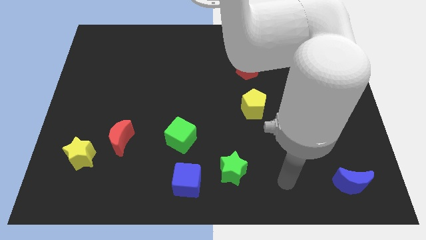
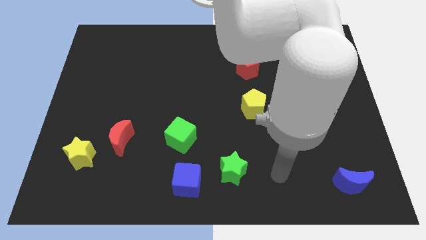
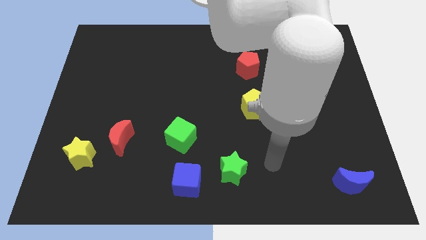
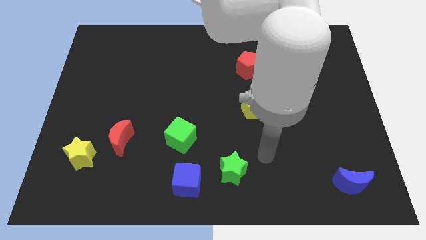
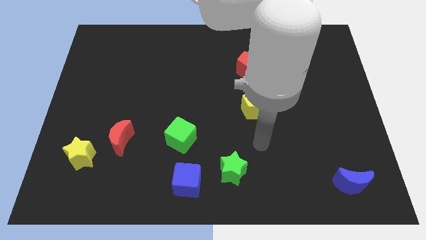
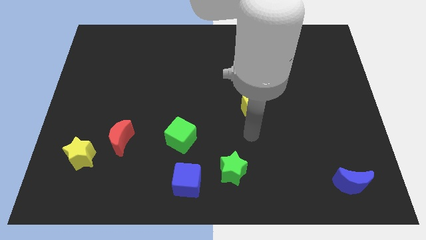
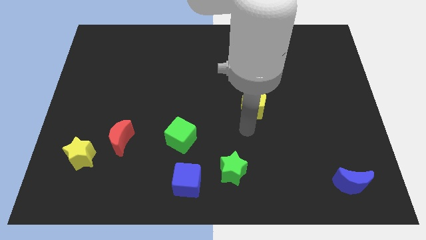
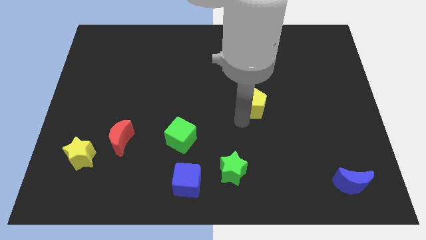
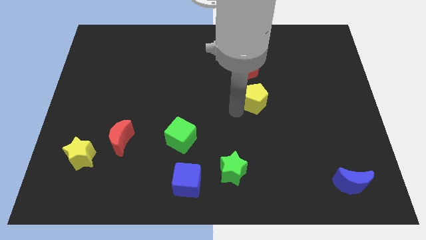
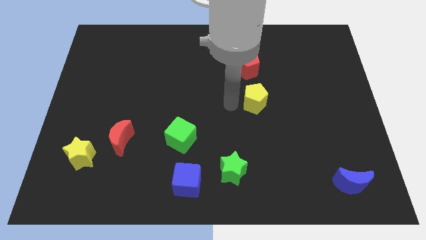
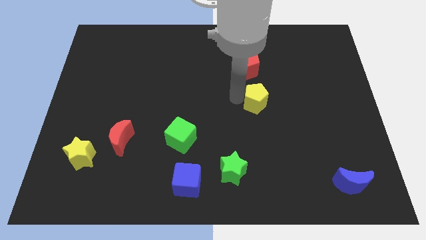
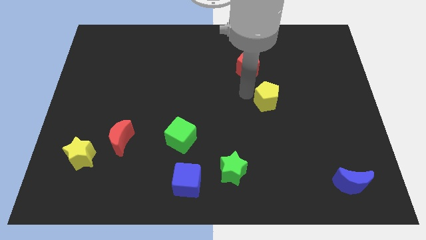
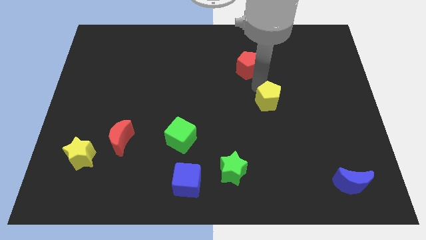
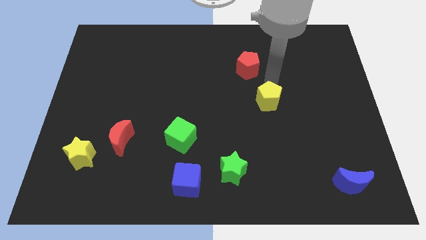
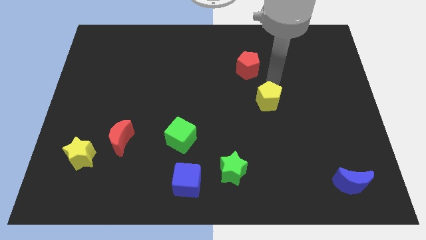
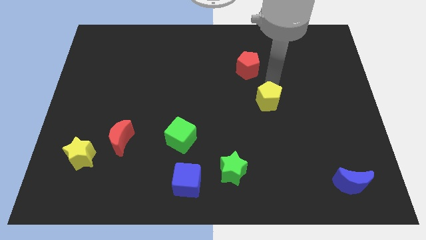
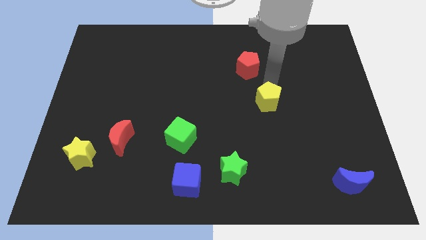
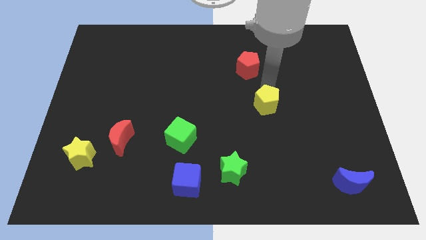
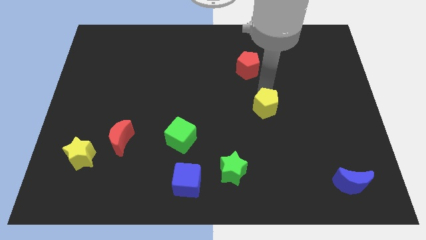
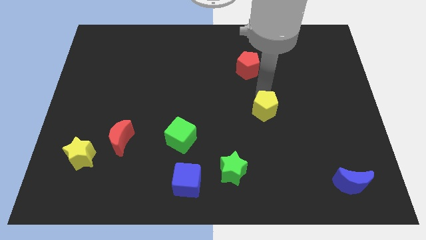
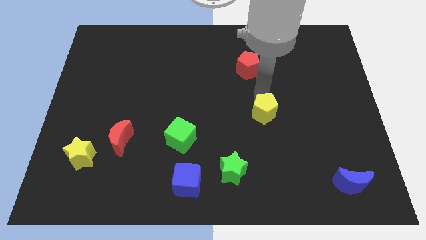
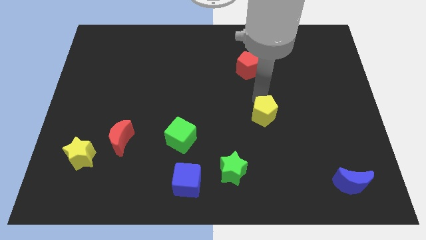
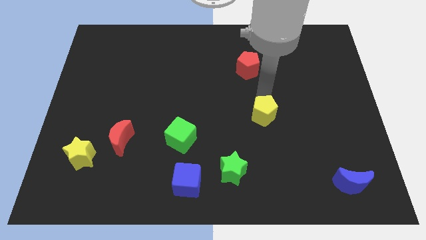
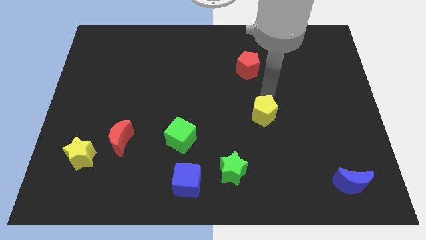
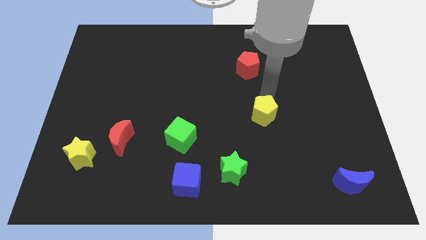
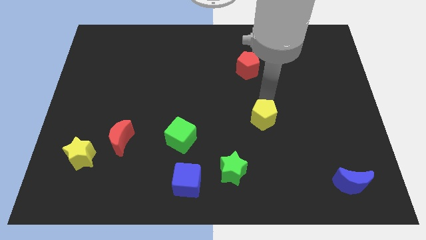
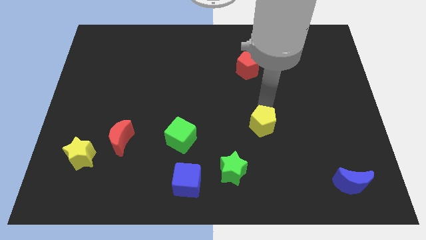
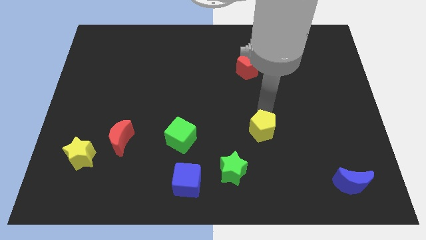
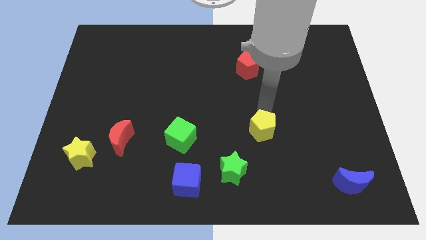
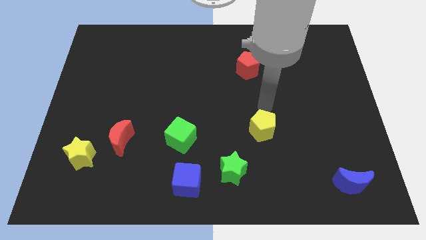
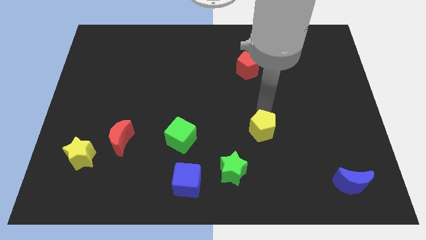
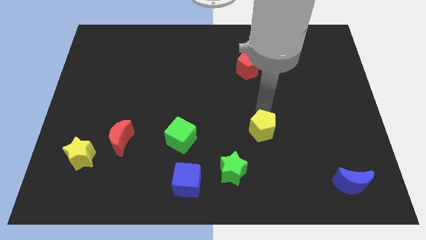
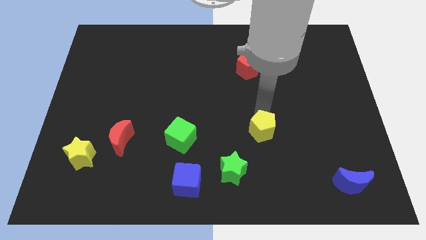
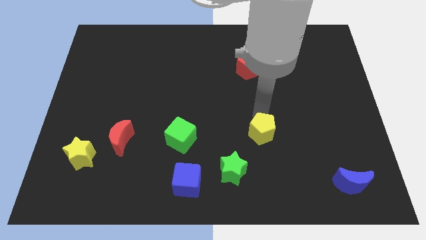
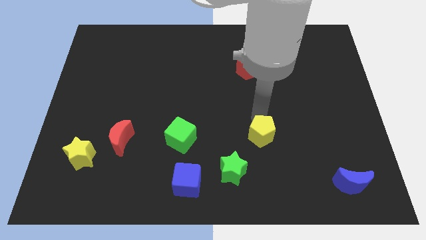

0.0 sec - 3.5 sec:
push the yellow pentagon a bit down

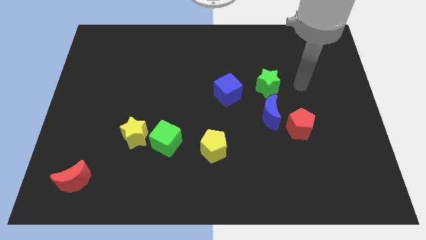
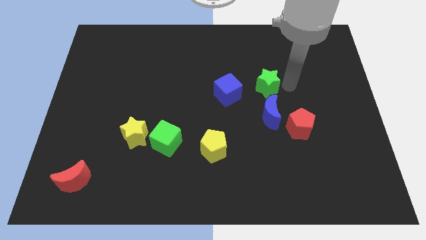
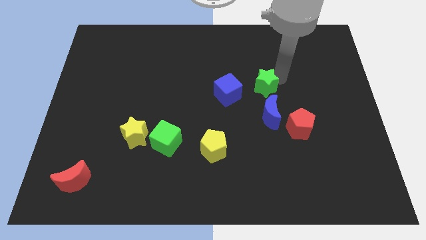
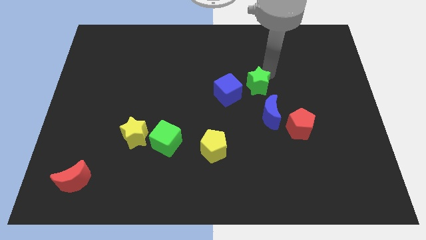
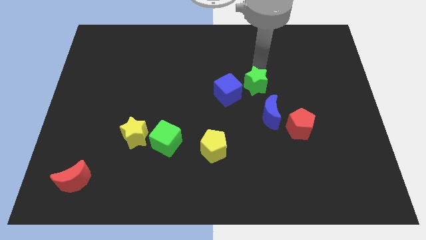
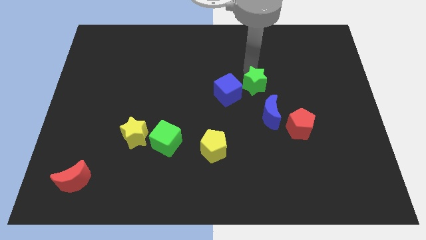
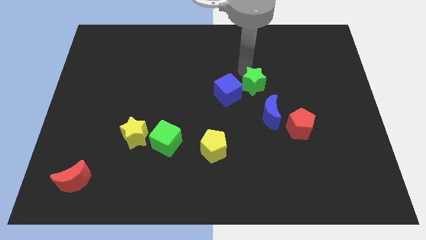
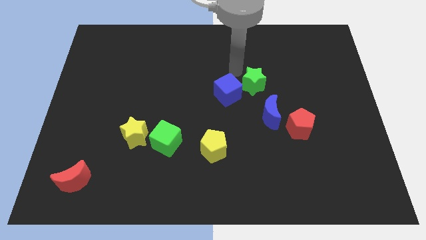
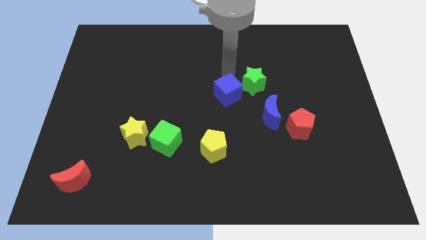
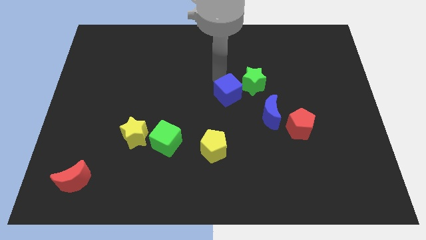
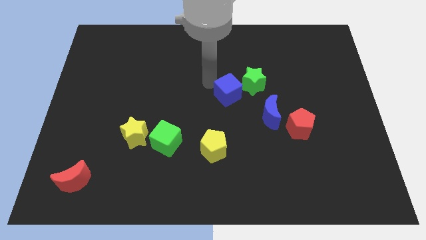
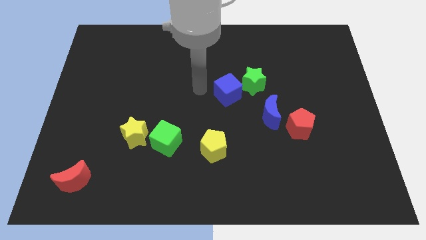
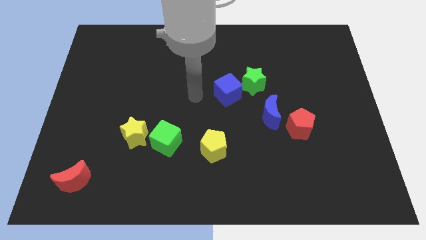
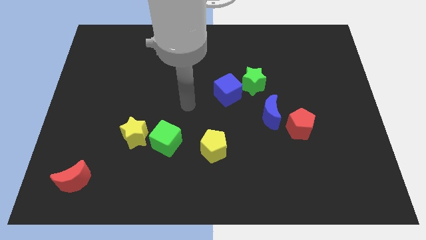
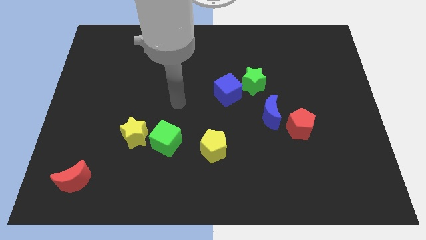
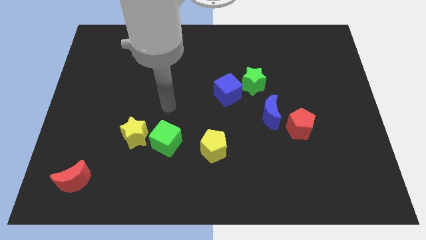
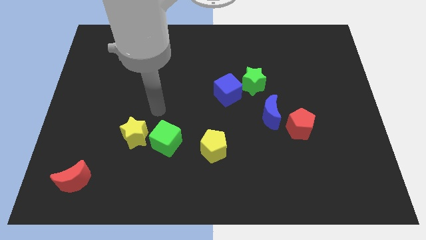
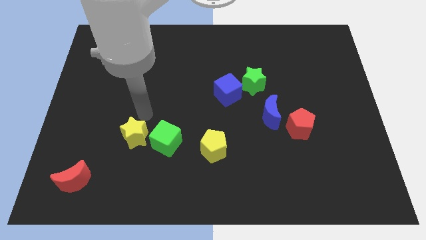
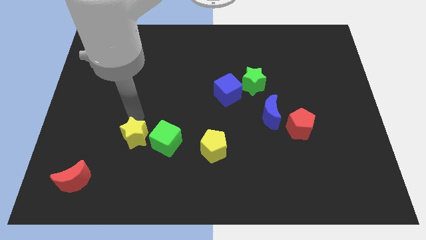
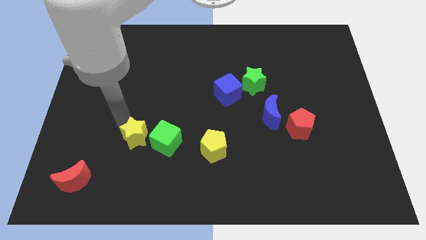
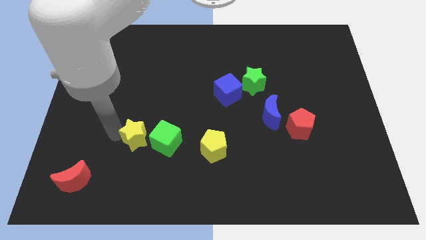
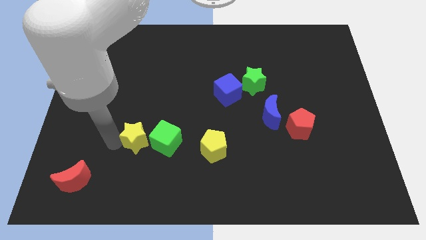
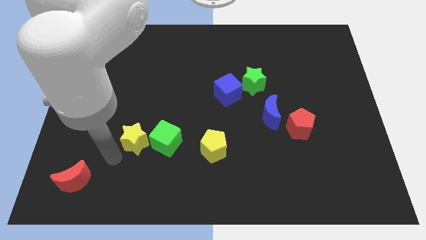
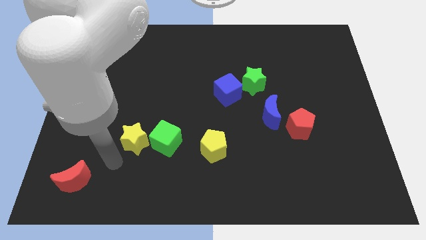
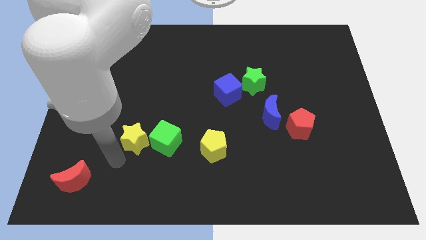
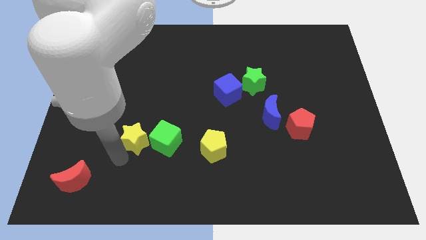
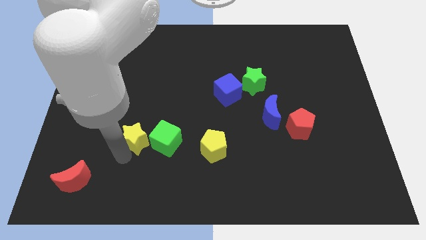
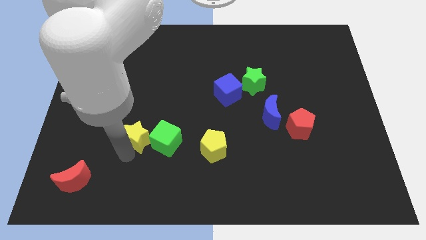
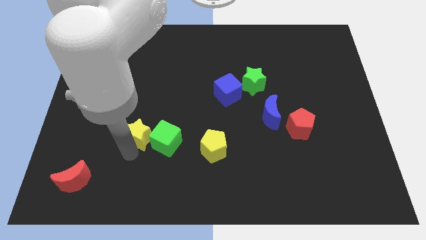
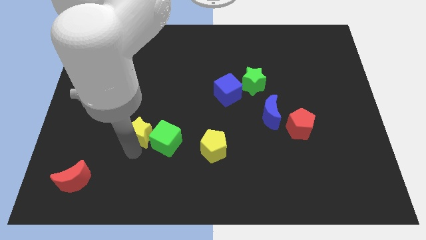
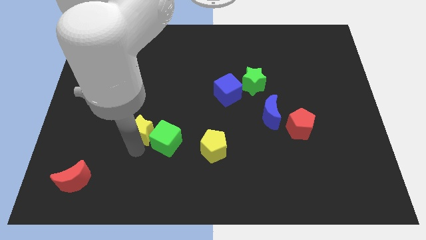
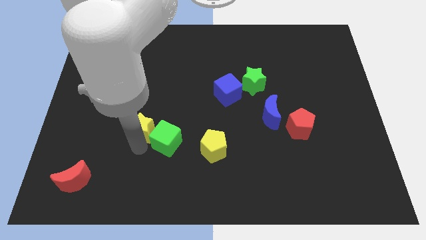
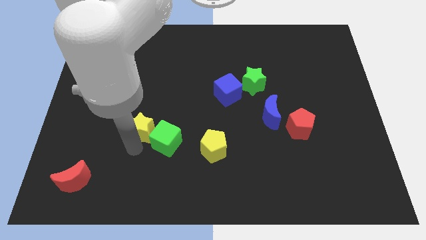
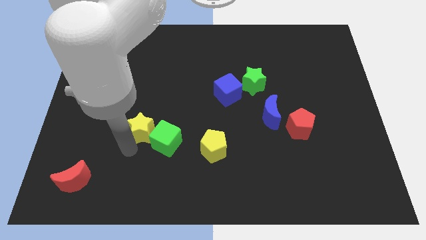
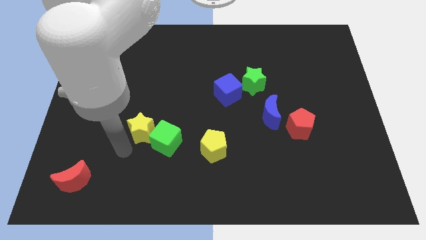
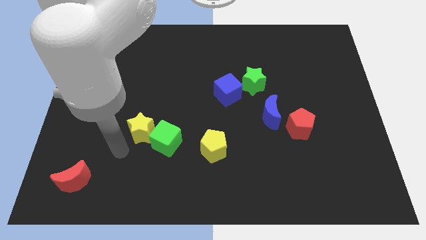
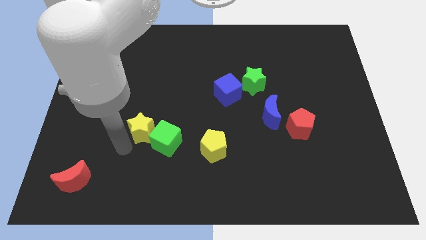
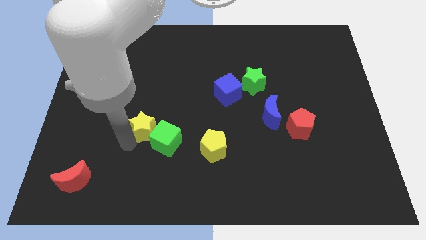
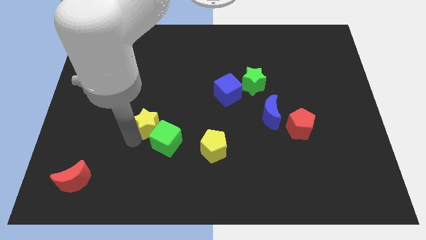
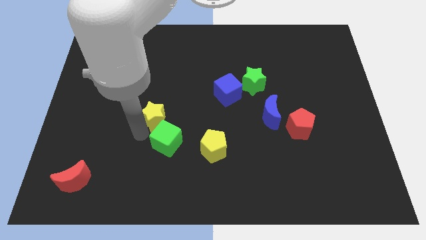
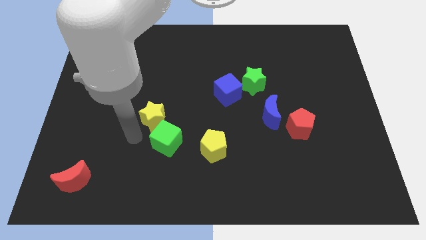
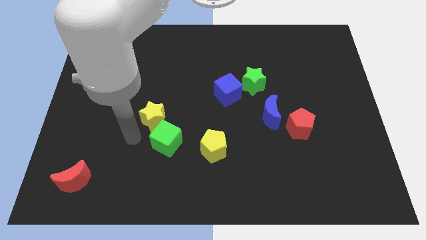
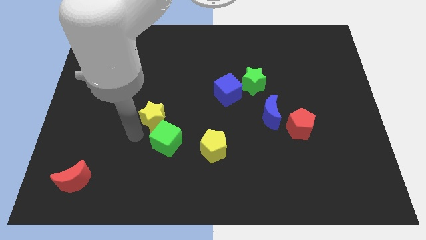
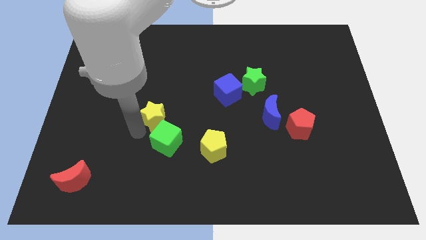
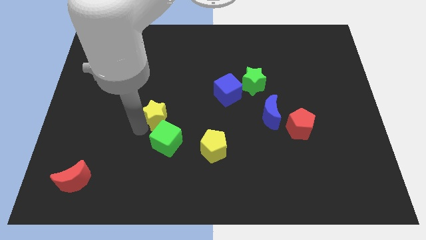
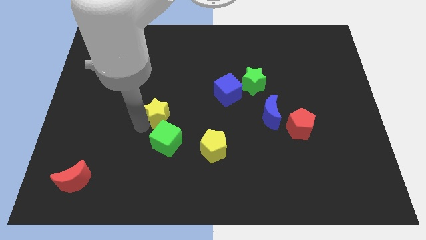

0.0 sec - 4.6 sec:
slightly push the yellow star diagonally up and to the right
